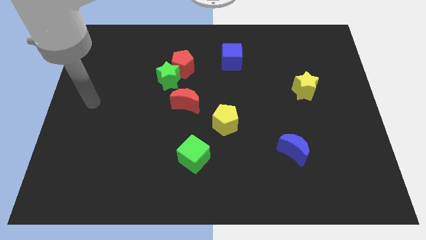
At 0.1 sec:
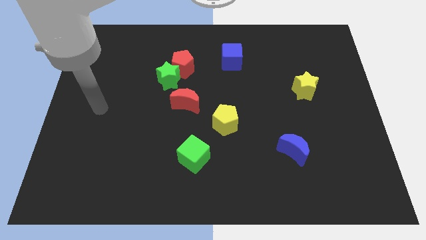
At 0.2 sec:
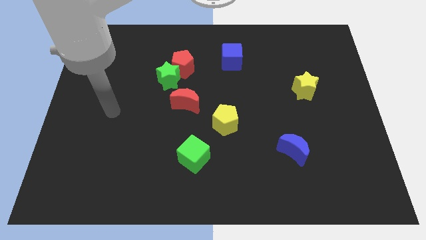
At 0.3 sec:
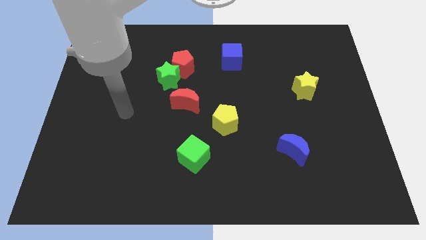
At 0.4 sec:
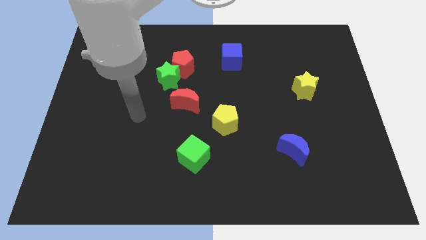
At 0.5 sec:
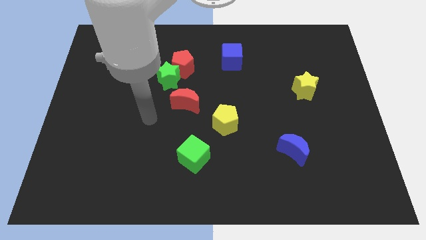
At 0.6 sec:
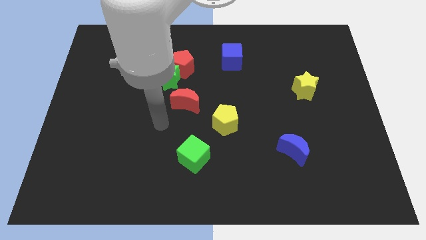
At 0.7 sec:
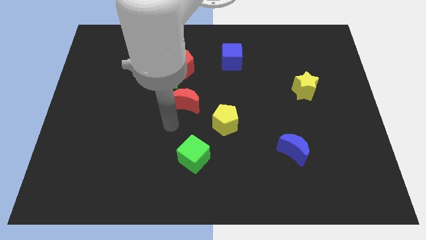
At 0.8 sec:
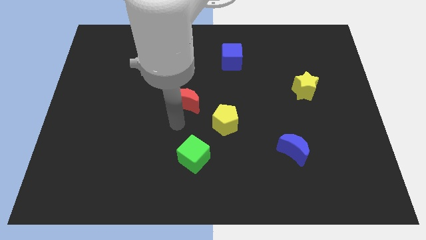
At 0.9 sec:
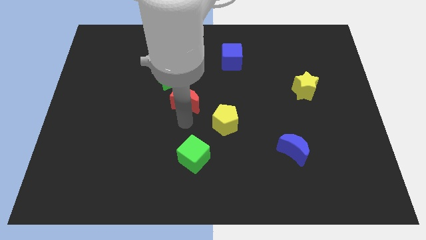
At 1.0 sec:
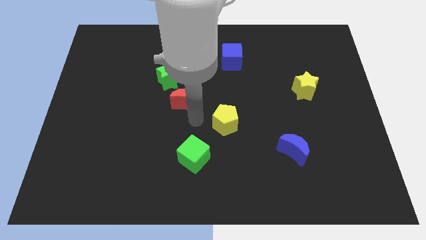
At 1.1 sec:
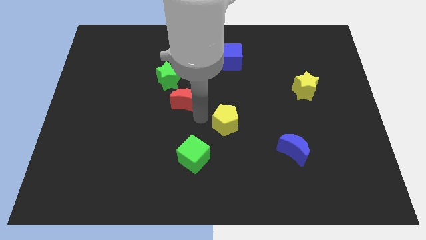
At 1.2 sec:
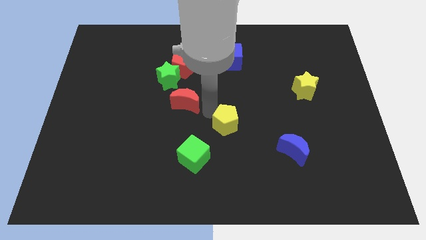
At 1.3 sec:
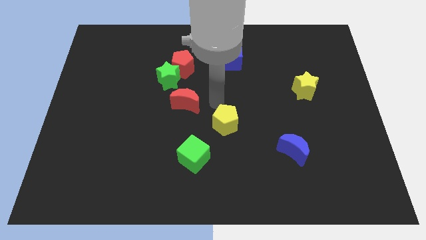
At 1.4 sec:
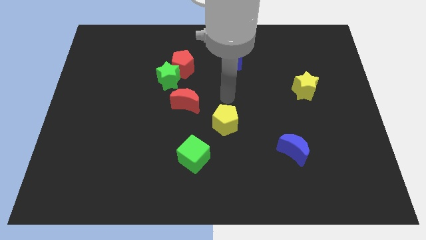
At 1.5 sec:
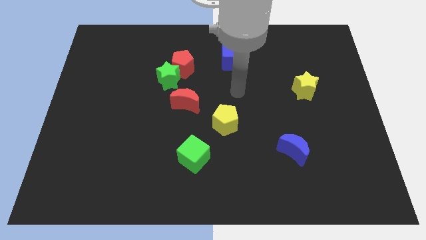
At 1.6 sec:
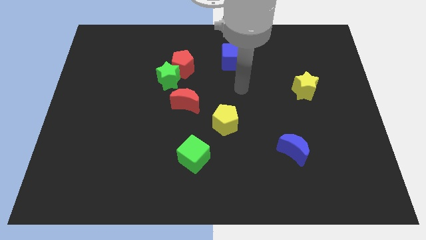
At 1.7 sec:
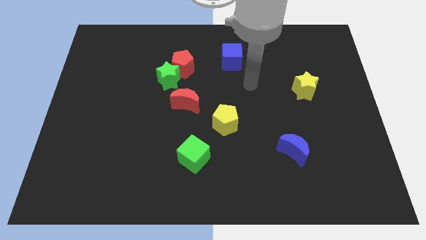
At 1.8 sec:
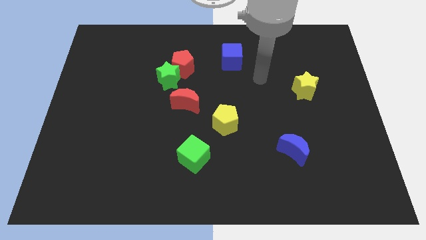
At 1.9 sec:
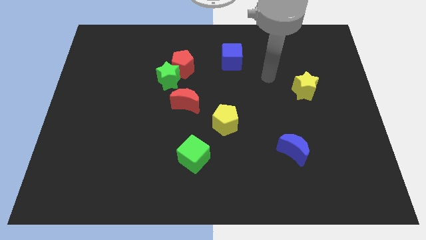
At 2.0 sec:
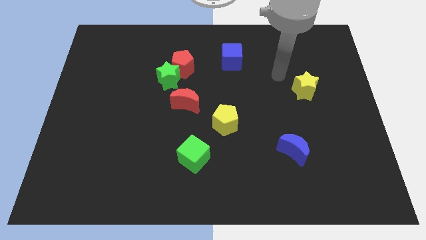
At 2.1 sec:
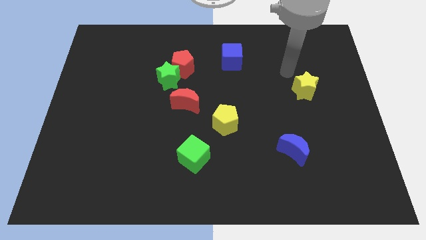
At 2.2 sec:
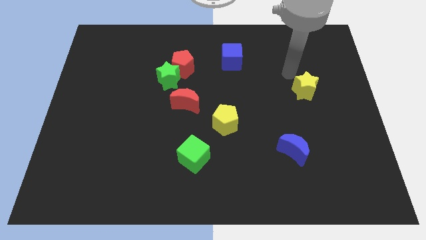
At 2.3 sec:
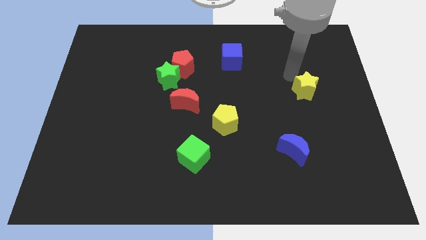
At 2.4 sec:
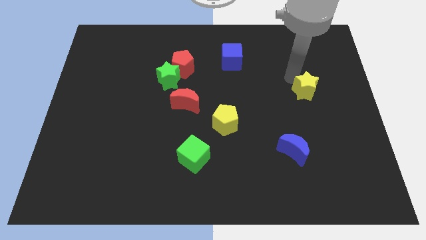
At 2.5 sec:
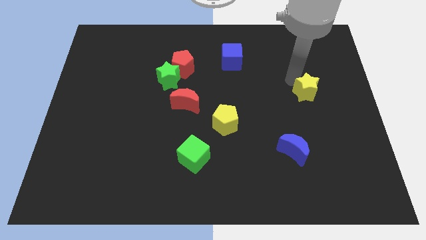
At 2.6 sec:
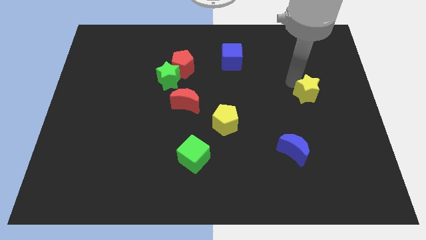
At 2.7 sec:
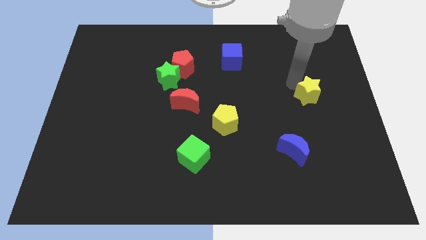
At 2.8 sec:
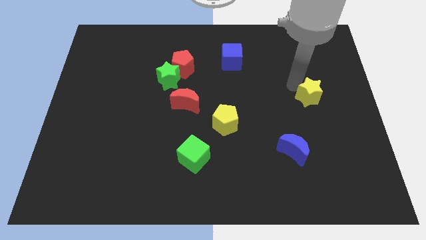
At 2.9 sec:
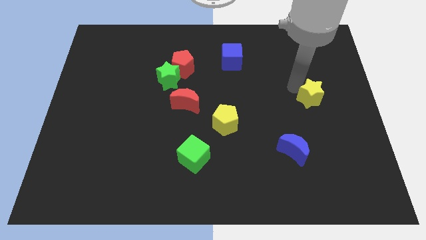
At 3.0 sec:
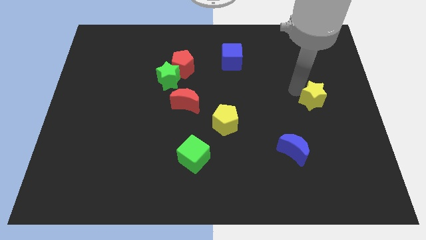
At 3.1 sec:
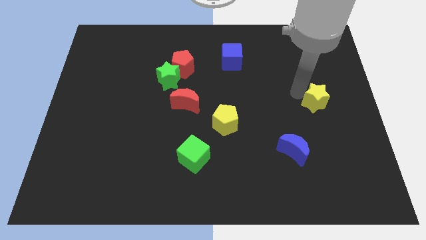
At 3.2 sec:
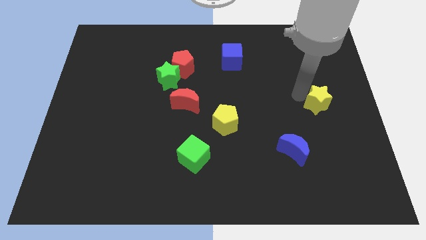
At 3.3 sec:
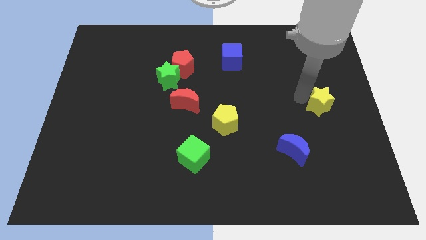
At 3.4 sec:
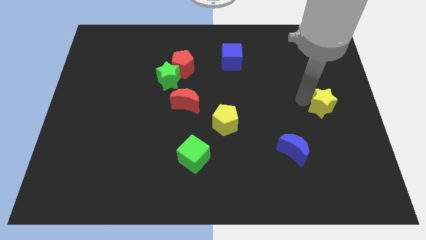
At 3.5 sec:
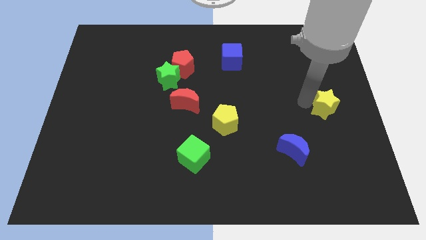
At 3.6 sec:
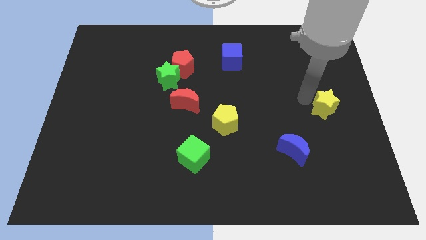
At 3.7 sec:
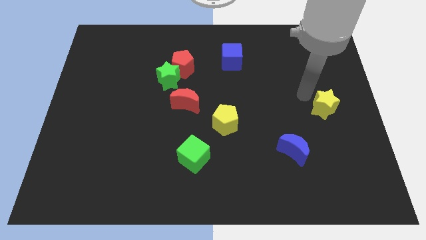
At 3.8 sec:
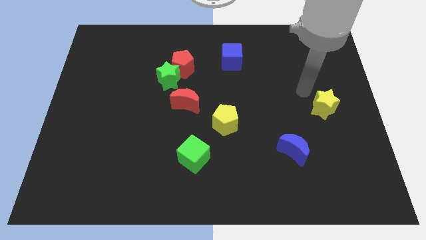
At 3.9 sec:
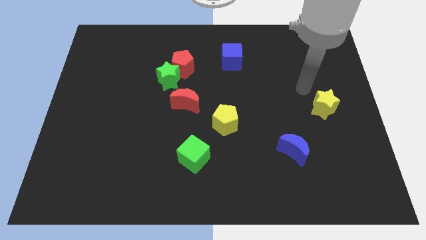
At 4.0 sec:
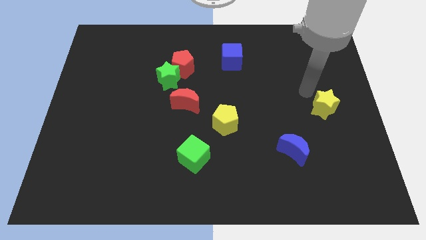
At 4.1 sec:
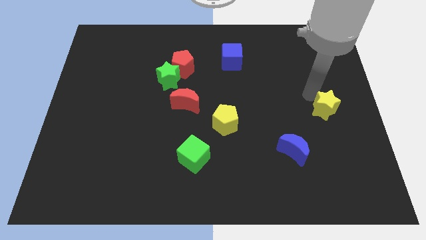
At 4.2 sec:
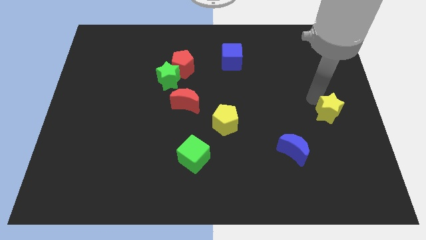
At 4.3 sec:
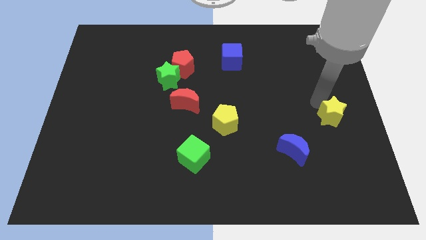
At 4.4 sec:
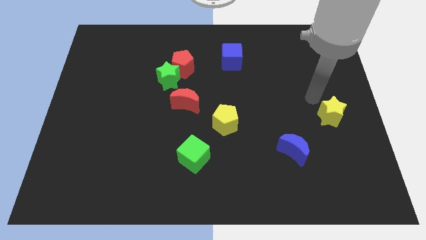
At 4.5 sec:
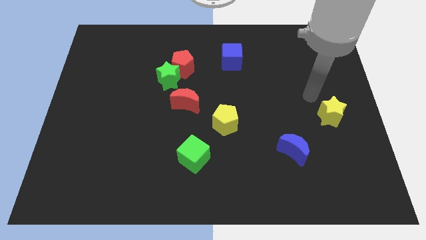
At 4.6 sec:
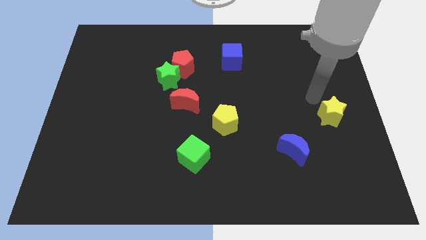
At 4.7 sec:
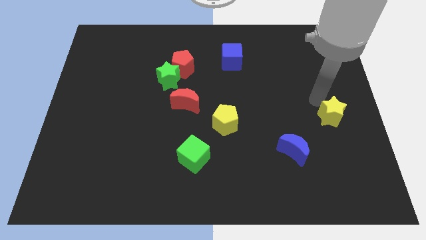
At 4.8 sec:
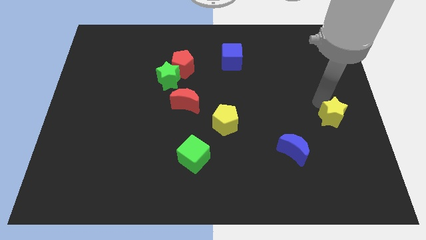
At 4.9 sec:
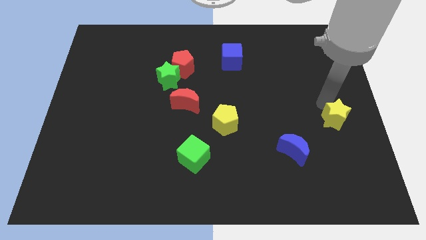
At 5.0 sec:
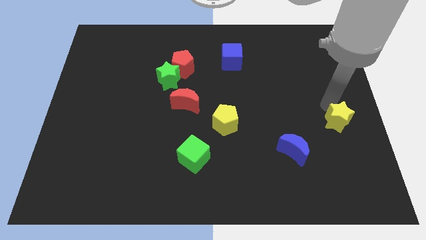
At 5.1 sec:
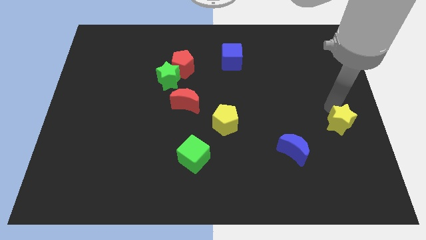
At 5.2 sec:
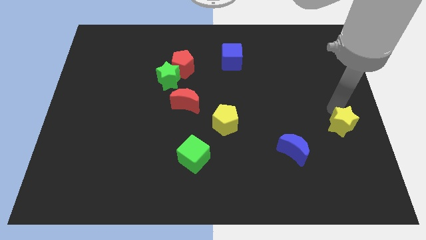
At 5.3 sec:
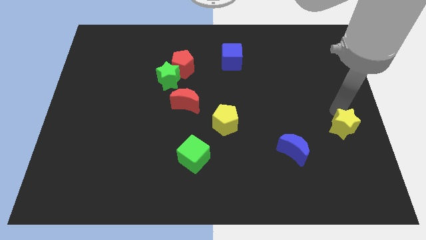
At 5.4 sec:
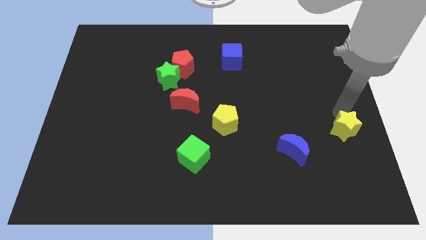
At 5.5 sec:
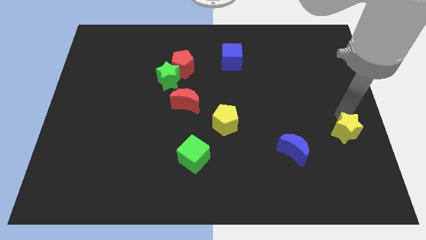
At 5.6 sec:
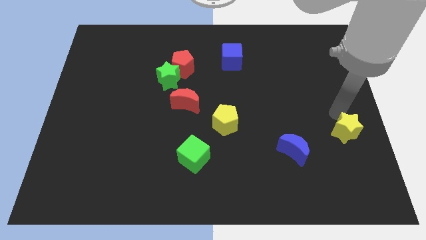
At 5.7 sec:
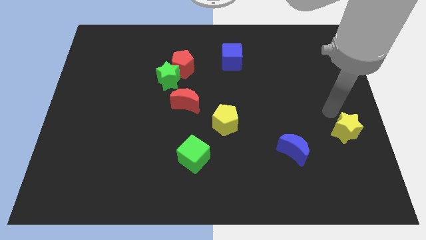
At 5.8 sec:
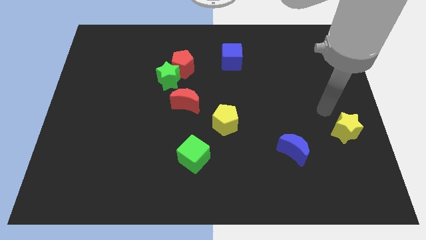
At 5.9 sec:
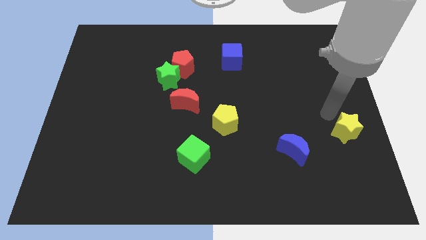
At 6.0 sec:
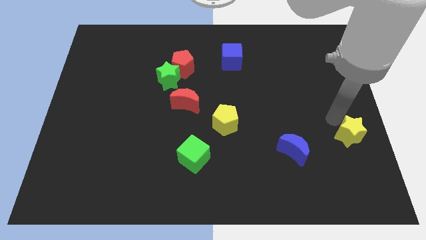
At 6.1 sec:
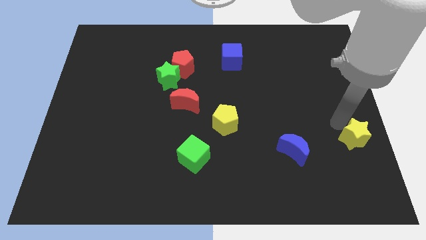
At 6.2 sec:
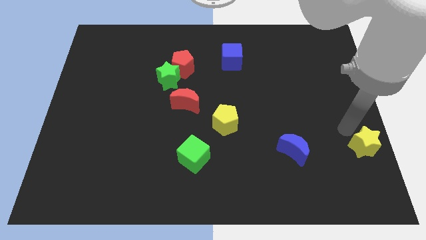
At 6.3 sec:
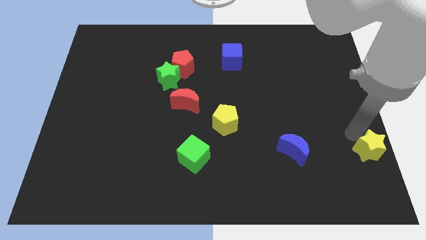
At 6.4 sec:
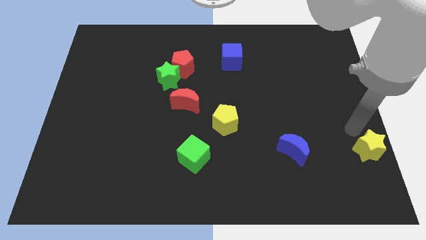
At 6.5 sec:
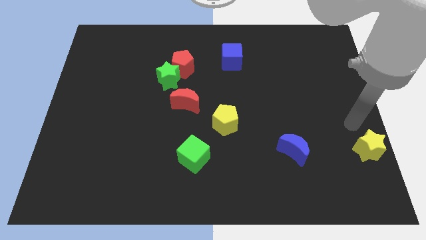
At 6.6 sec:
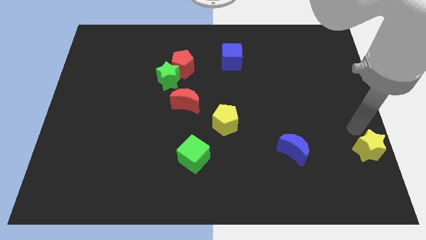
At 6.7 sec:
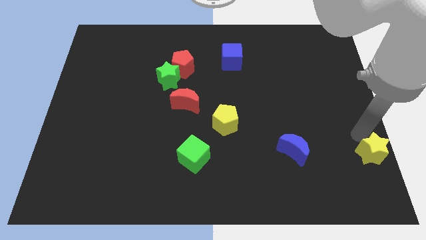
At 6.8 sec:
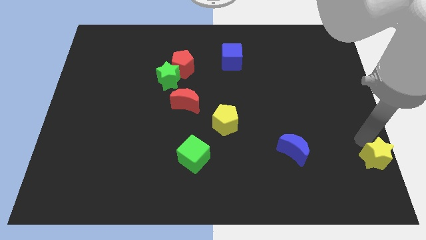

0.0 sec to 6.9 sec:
push the yellow star to the bottom right corner
